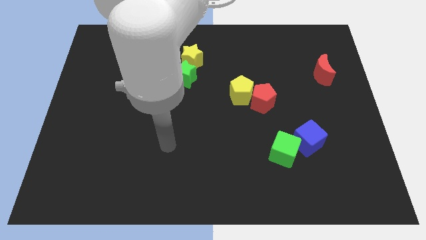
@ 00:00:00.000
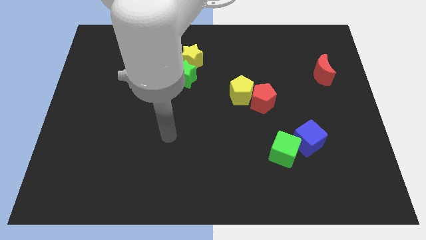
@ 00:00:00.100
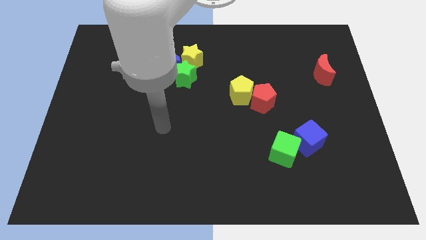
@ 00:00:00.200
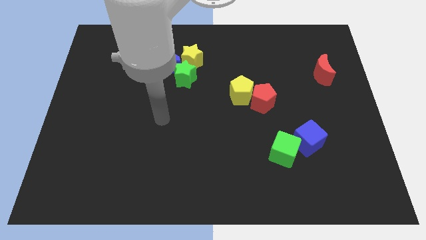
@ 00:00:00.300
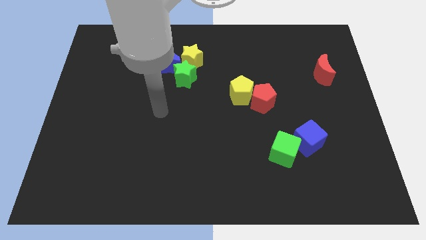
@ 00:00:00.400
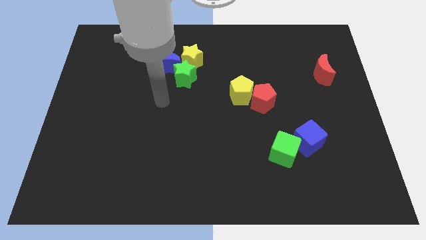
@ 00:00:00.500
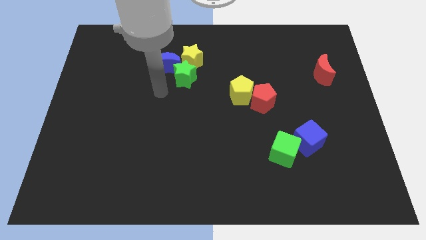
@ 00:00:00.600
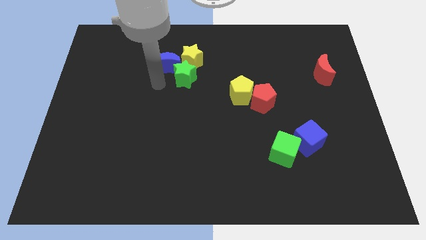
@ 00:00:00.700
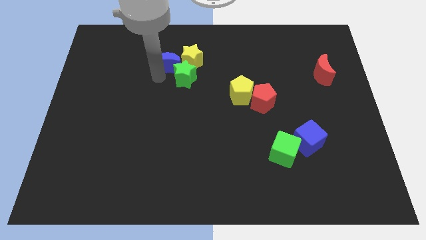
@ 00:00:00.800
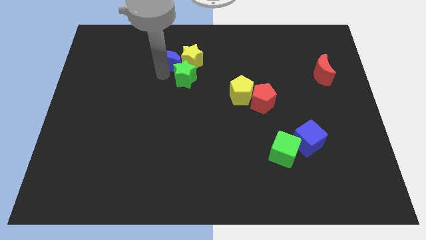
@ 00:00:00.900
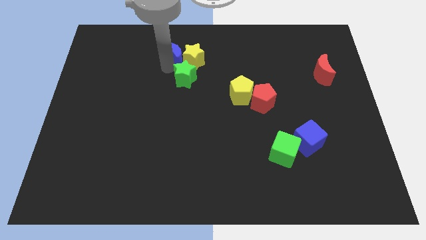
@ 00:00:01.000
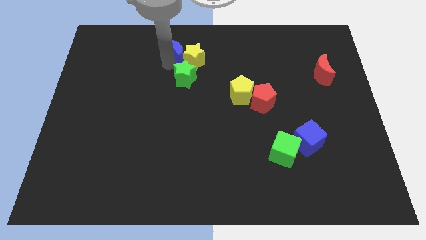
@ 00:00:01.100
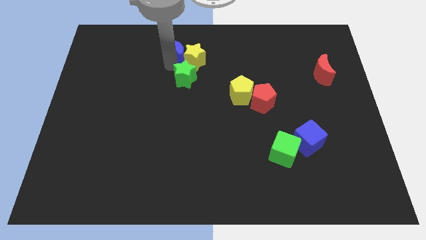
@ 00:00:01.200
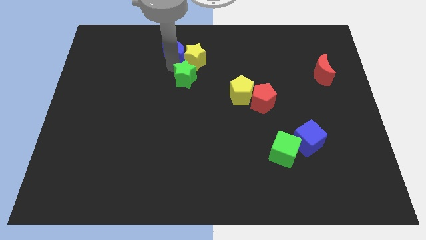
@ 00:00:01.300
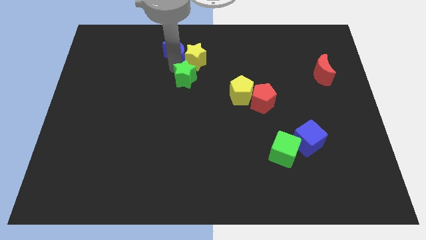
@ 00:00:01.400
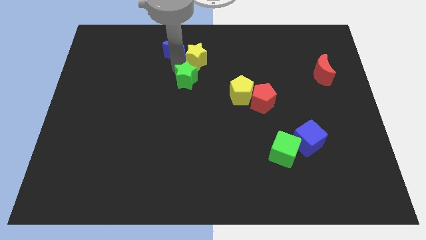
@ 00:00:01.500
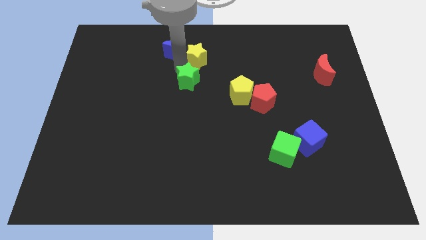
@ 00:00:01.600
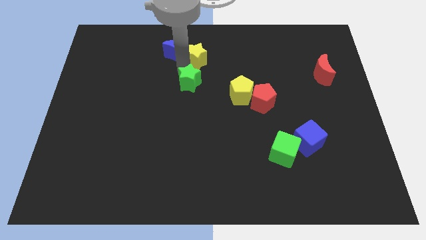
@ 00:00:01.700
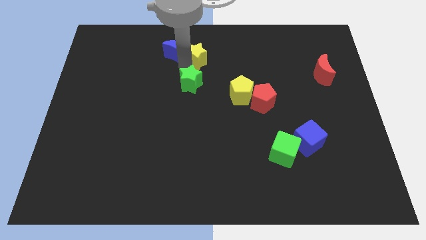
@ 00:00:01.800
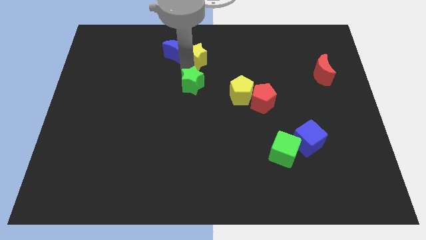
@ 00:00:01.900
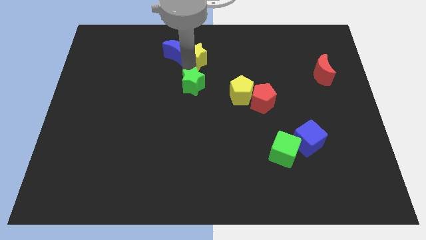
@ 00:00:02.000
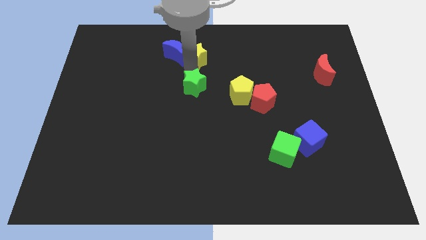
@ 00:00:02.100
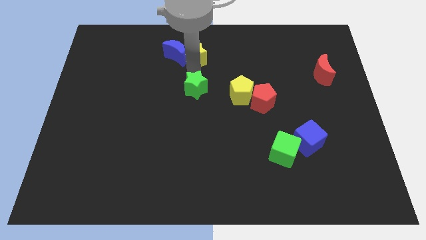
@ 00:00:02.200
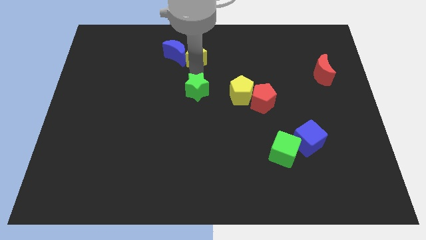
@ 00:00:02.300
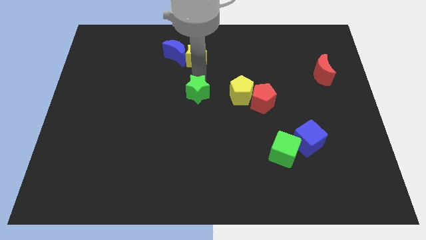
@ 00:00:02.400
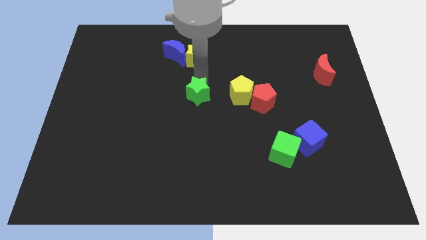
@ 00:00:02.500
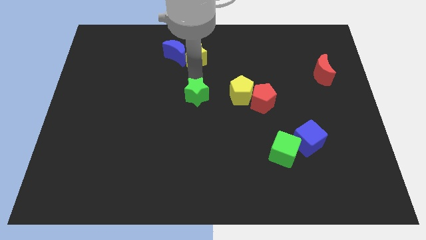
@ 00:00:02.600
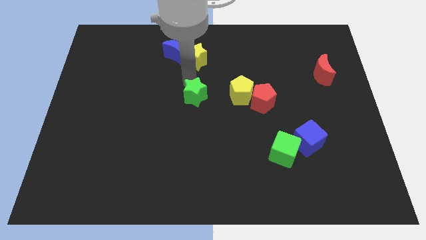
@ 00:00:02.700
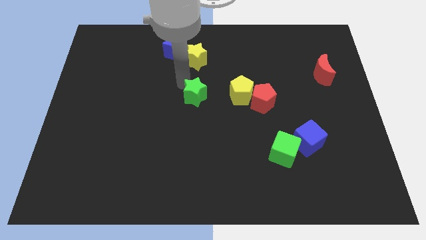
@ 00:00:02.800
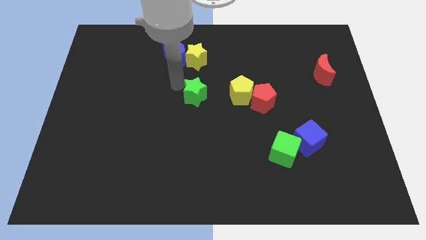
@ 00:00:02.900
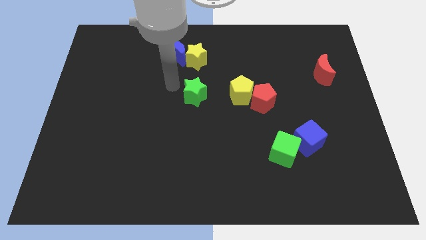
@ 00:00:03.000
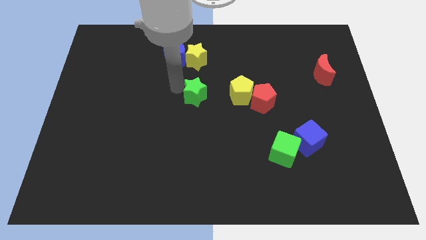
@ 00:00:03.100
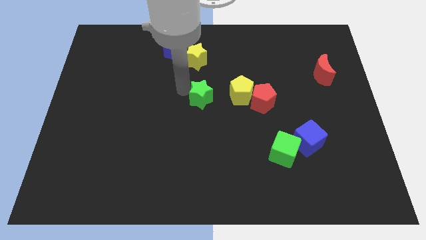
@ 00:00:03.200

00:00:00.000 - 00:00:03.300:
move the green star a little down and then to the right

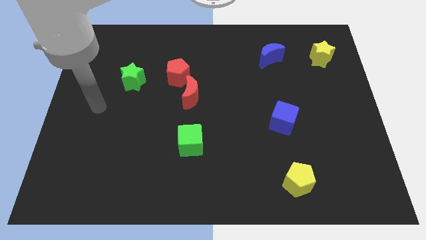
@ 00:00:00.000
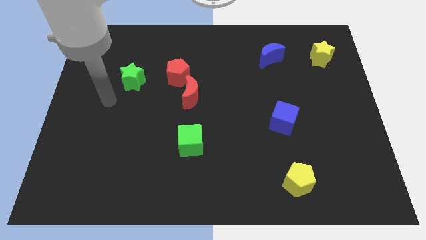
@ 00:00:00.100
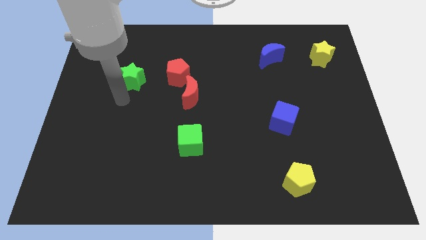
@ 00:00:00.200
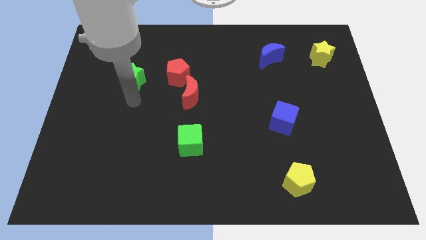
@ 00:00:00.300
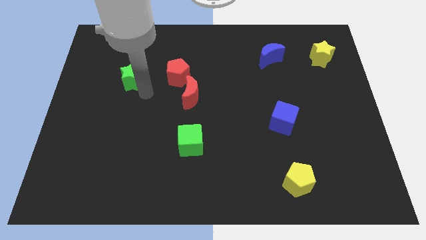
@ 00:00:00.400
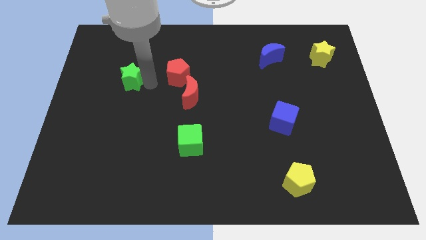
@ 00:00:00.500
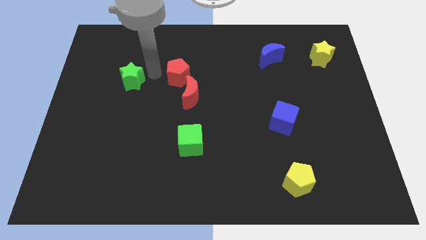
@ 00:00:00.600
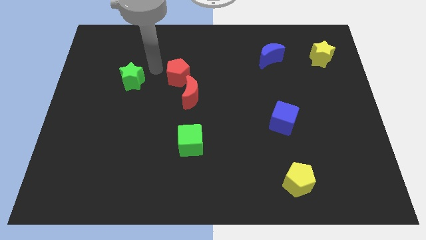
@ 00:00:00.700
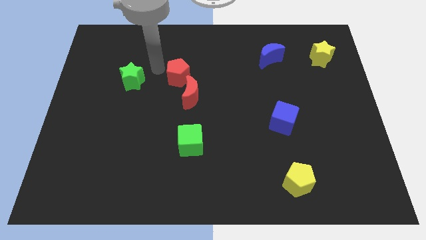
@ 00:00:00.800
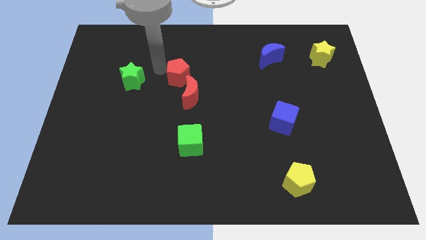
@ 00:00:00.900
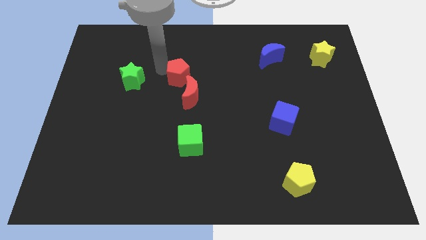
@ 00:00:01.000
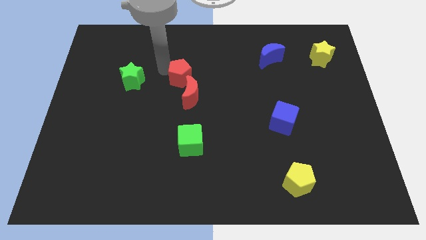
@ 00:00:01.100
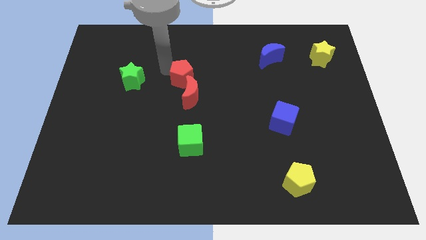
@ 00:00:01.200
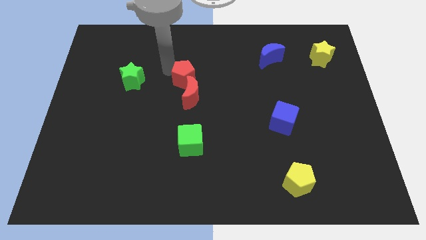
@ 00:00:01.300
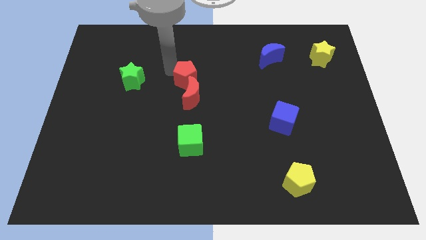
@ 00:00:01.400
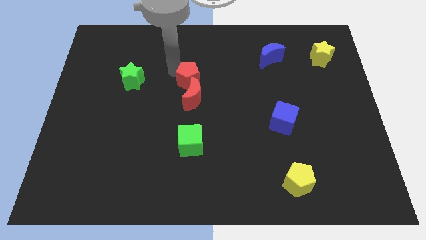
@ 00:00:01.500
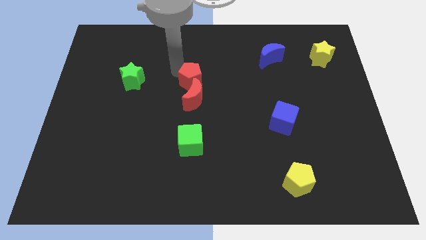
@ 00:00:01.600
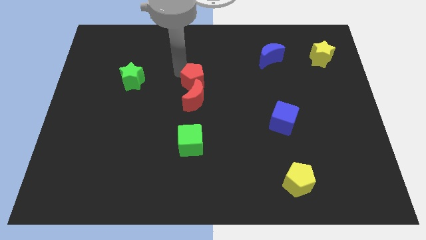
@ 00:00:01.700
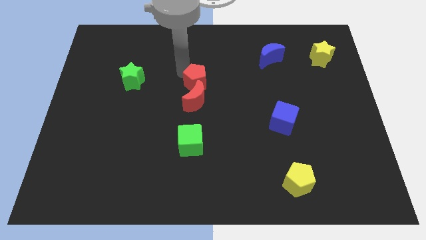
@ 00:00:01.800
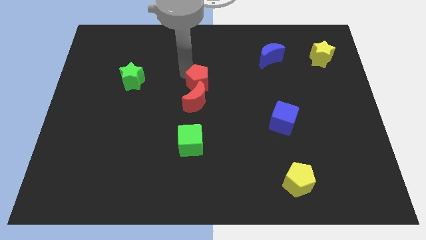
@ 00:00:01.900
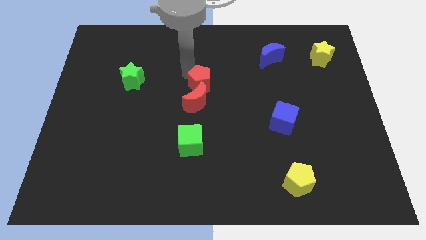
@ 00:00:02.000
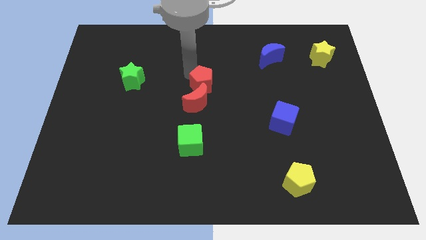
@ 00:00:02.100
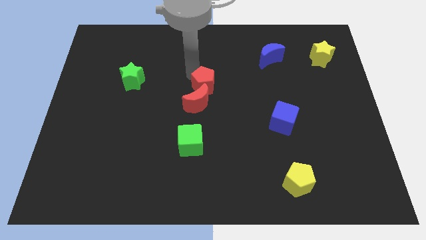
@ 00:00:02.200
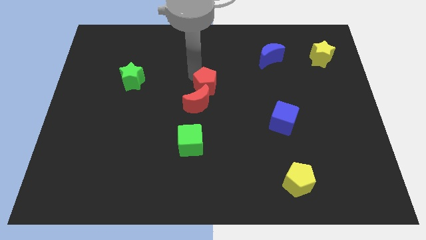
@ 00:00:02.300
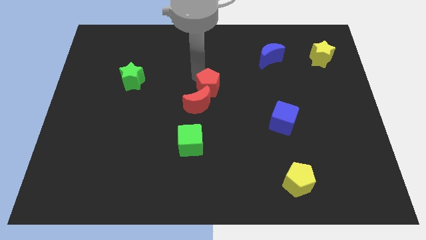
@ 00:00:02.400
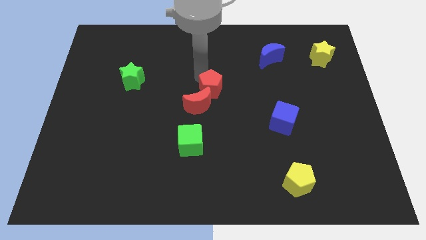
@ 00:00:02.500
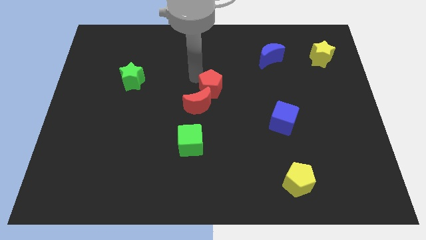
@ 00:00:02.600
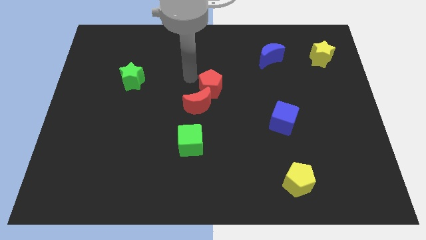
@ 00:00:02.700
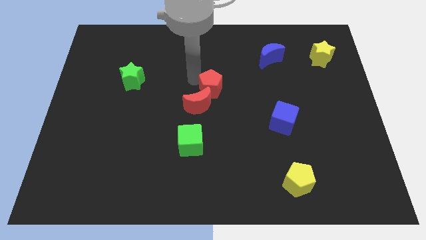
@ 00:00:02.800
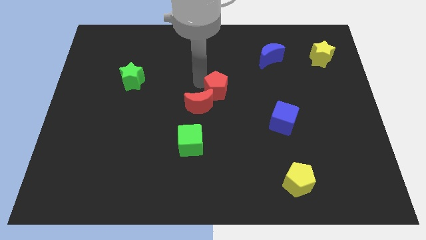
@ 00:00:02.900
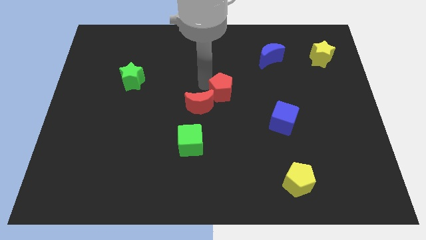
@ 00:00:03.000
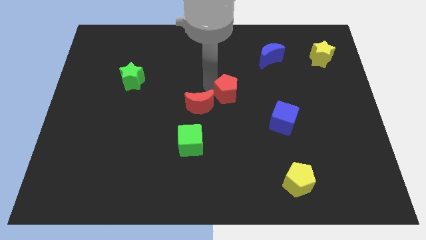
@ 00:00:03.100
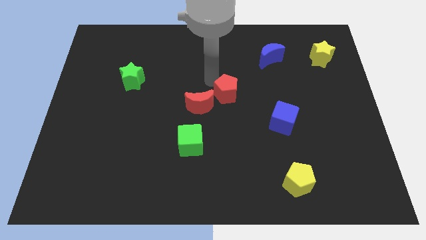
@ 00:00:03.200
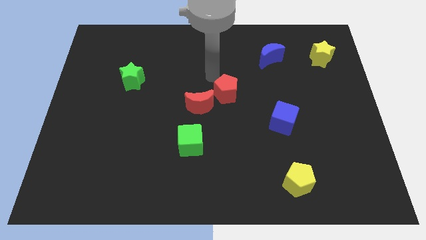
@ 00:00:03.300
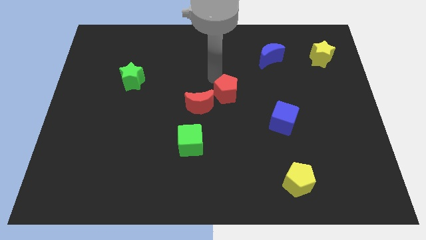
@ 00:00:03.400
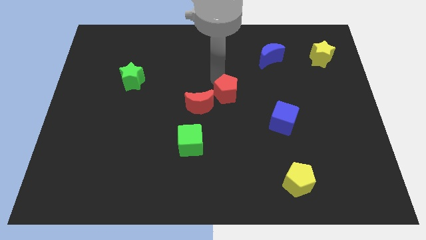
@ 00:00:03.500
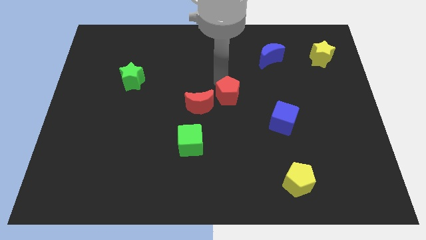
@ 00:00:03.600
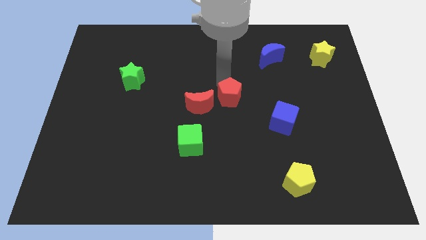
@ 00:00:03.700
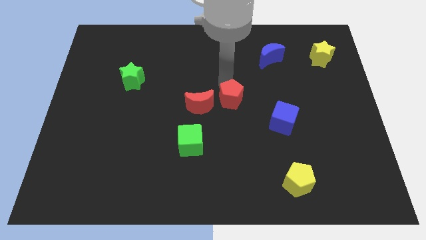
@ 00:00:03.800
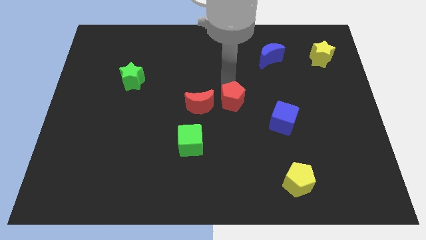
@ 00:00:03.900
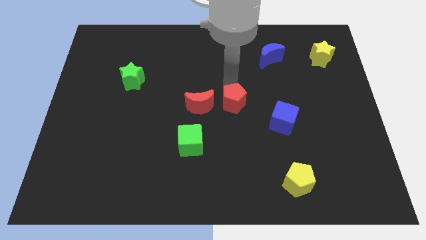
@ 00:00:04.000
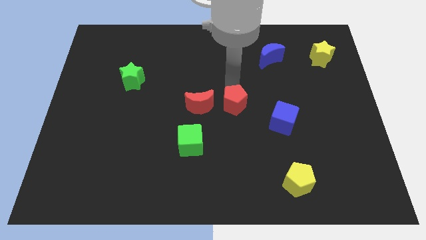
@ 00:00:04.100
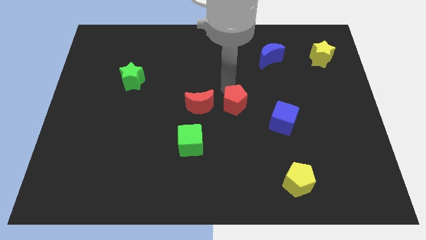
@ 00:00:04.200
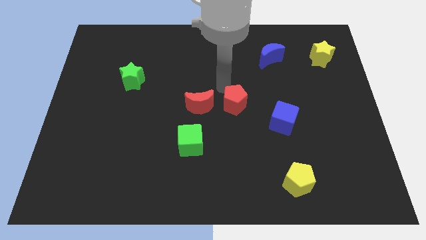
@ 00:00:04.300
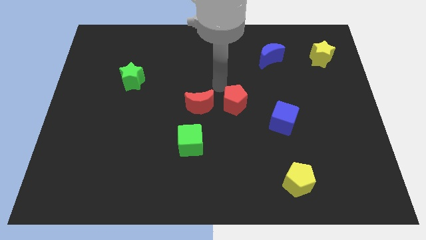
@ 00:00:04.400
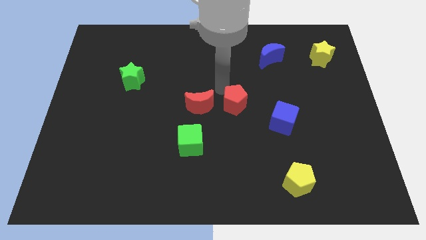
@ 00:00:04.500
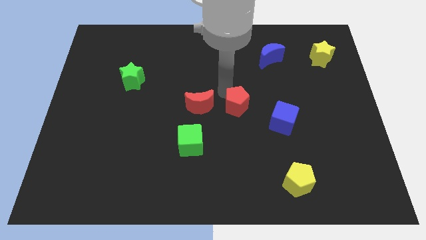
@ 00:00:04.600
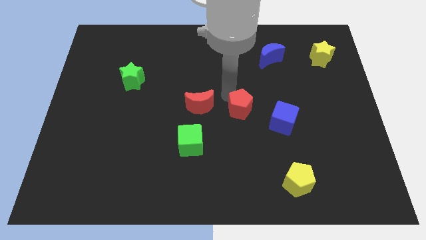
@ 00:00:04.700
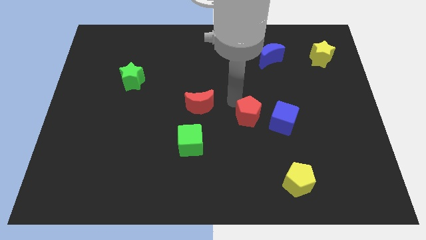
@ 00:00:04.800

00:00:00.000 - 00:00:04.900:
move the red pentagon down and then to the right
